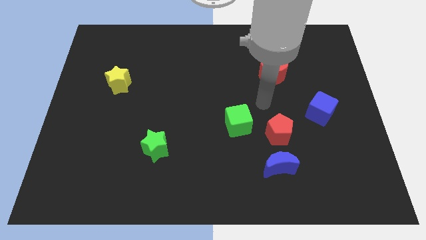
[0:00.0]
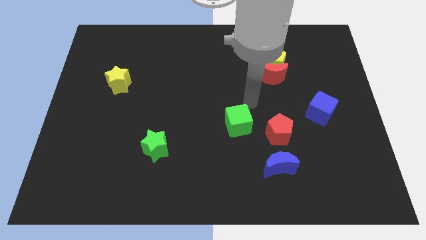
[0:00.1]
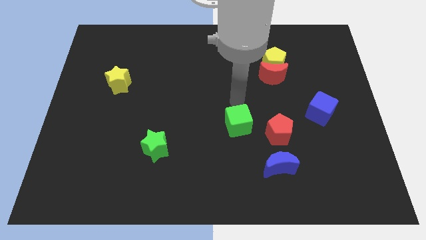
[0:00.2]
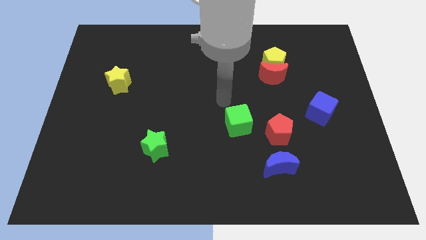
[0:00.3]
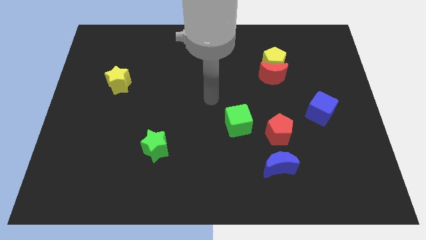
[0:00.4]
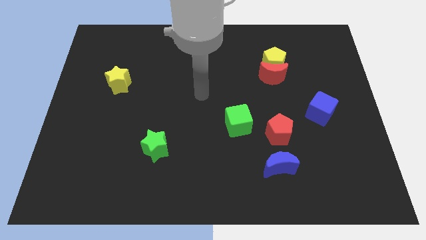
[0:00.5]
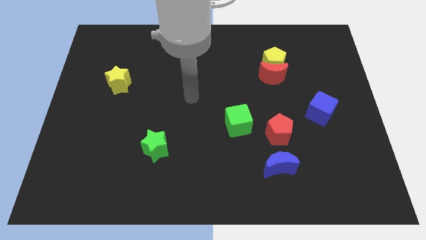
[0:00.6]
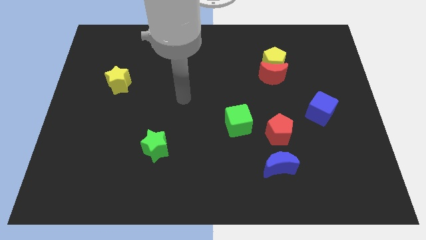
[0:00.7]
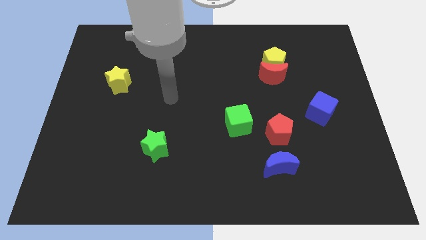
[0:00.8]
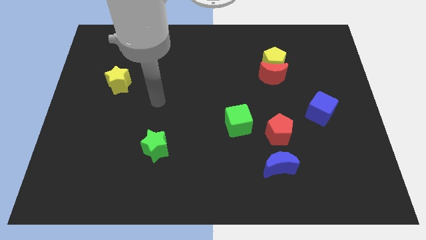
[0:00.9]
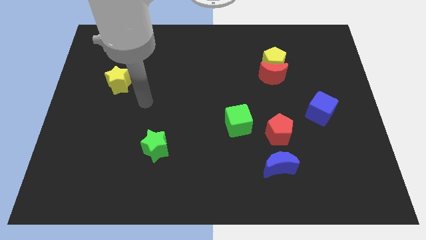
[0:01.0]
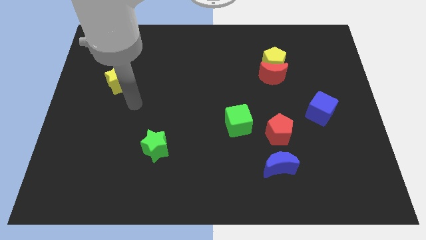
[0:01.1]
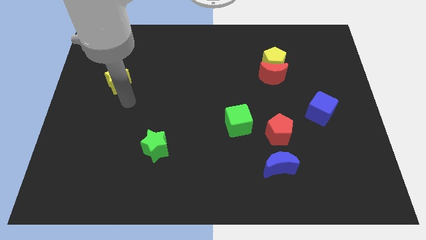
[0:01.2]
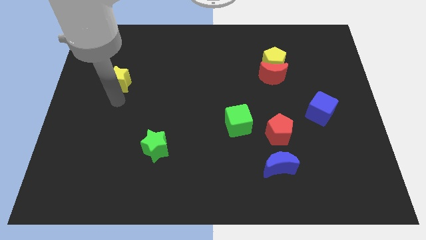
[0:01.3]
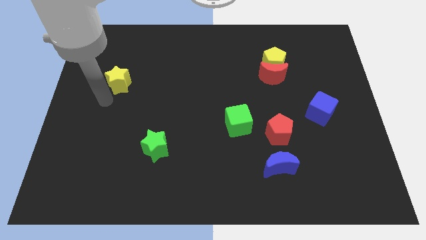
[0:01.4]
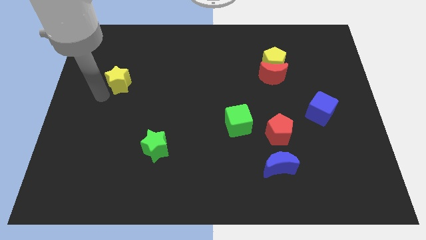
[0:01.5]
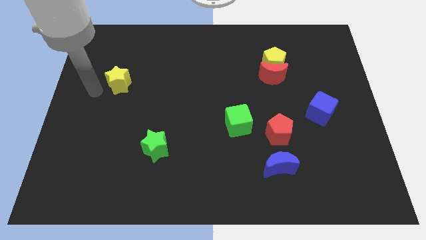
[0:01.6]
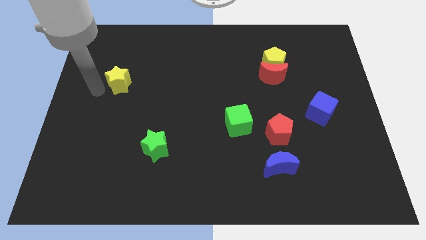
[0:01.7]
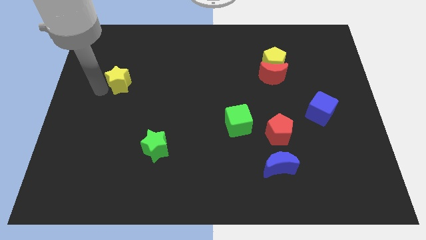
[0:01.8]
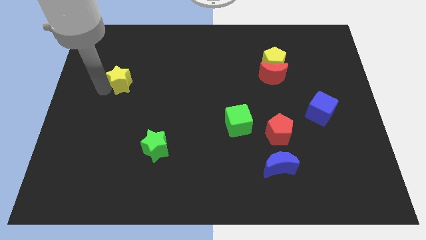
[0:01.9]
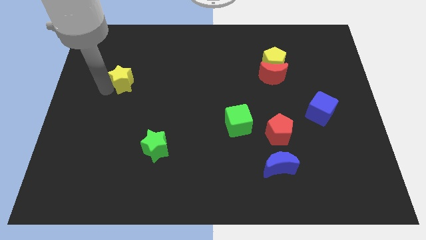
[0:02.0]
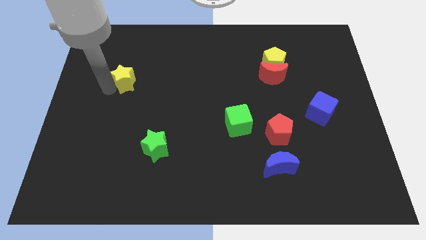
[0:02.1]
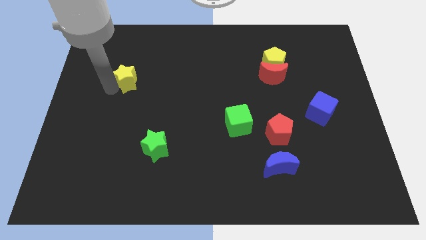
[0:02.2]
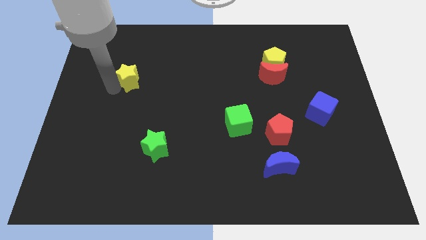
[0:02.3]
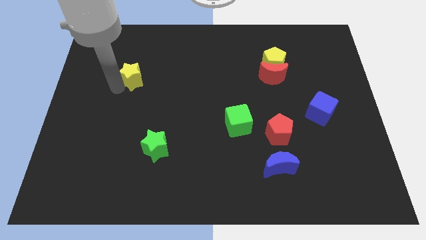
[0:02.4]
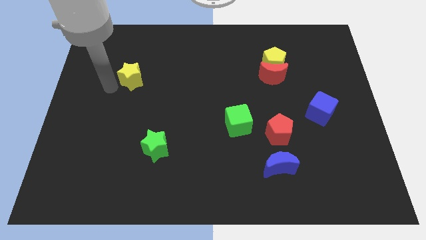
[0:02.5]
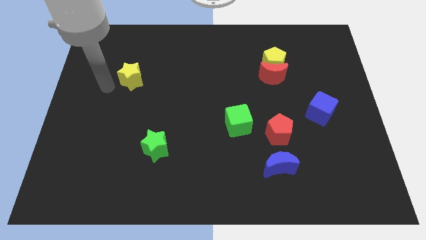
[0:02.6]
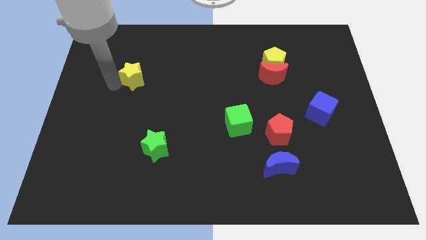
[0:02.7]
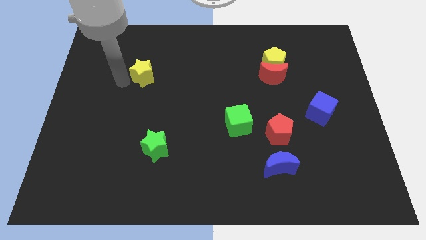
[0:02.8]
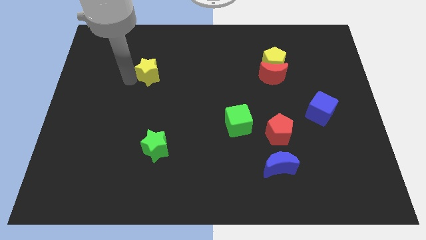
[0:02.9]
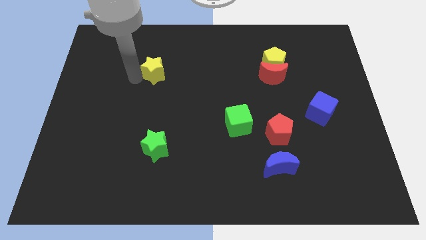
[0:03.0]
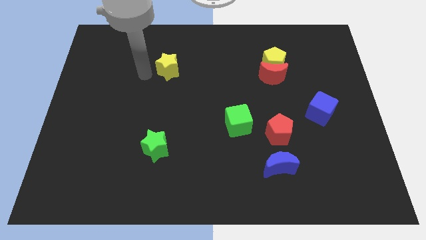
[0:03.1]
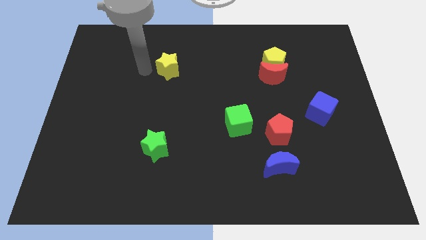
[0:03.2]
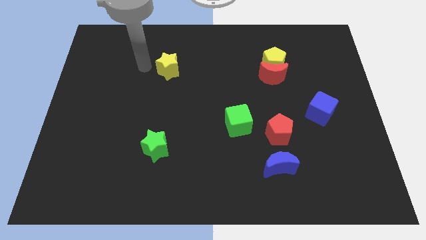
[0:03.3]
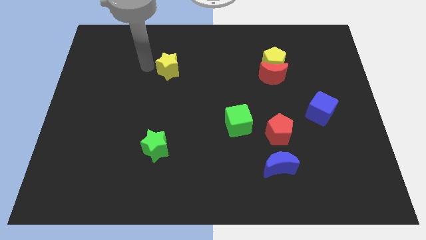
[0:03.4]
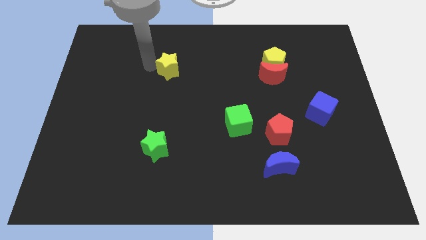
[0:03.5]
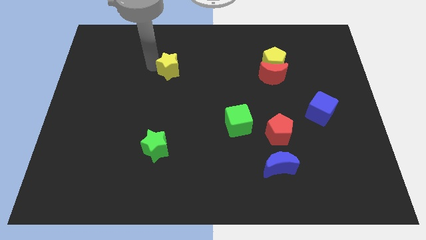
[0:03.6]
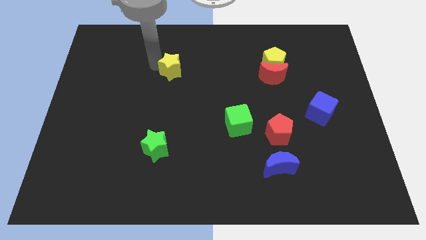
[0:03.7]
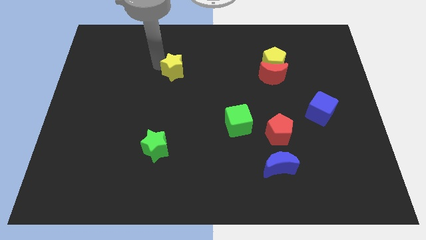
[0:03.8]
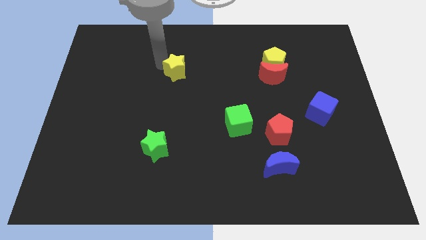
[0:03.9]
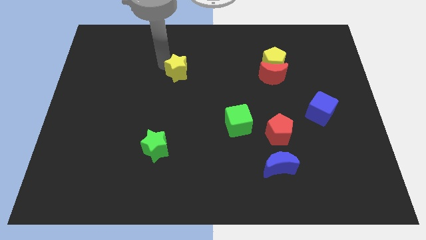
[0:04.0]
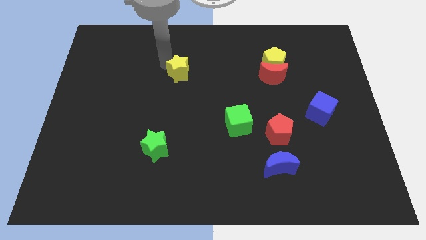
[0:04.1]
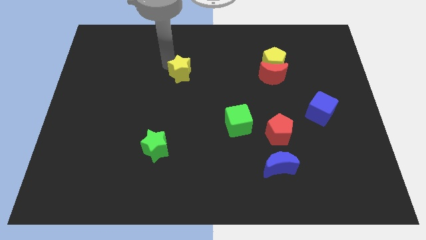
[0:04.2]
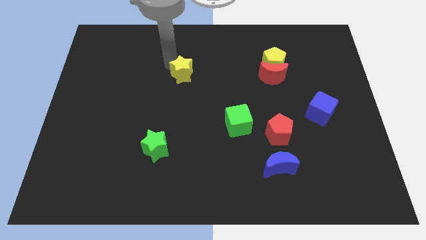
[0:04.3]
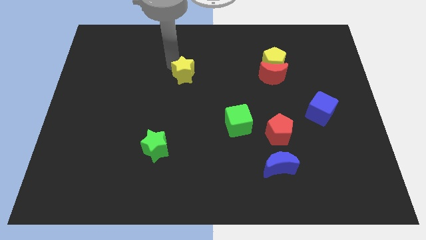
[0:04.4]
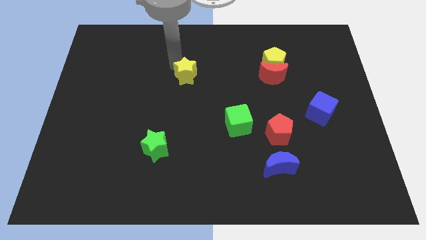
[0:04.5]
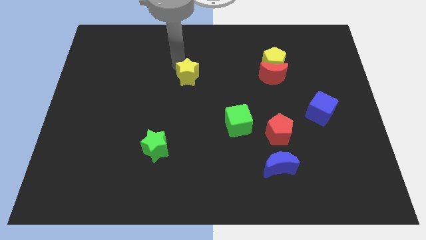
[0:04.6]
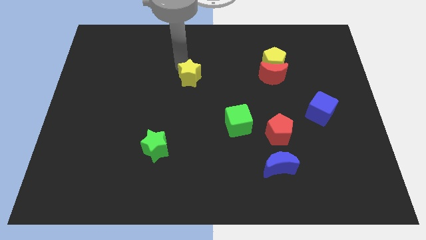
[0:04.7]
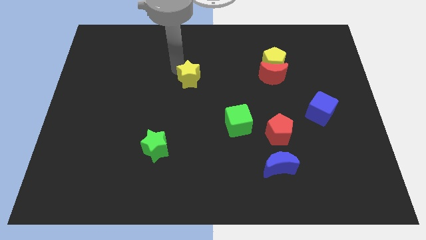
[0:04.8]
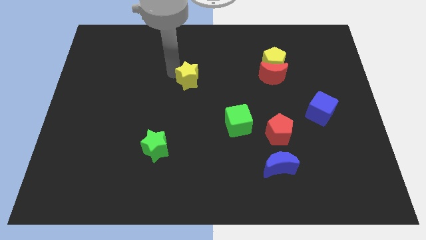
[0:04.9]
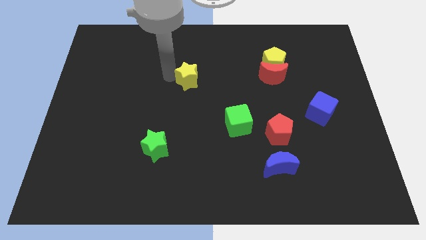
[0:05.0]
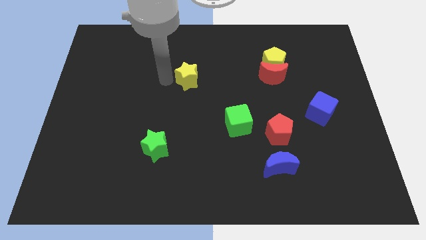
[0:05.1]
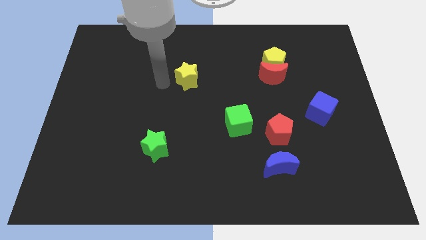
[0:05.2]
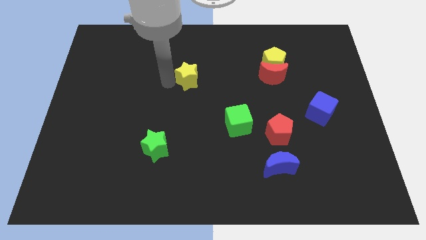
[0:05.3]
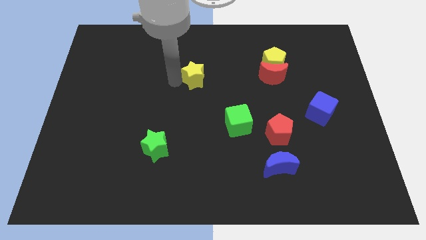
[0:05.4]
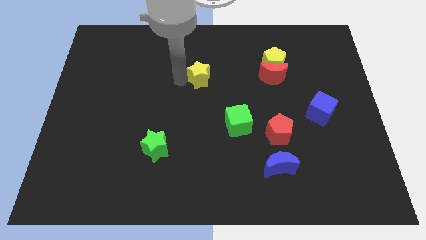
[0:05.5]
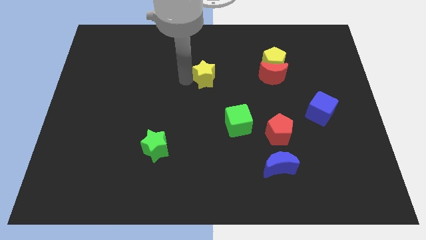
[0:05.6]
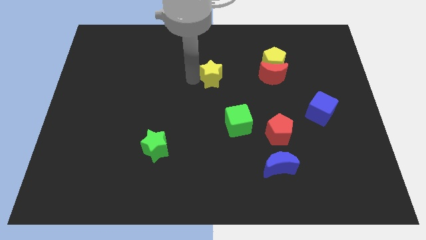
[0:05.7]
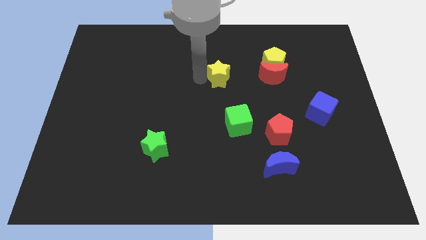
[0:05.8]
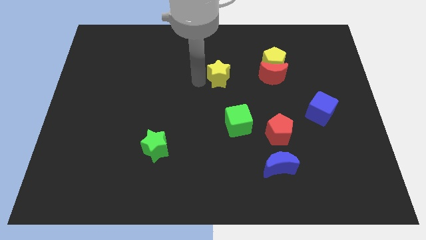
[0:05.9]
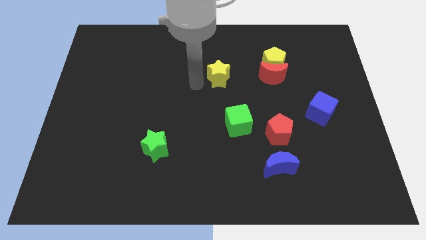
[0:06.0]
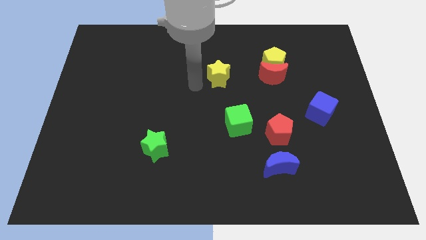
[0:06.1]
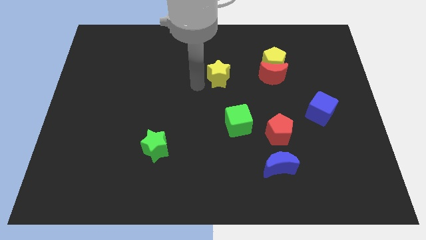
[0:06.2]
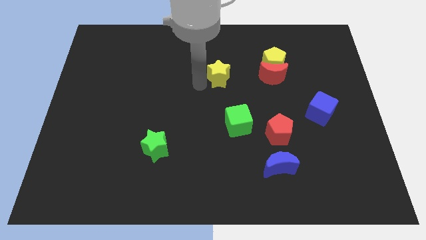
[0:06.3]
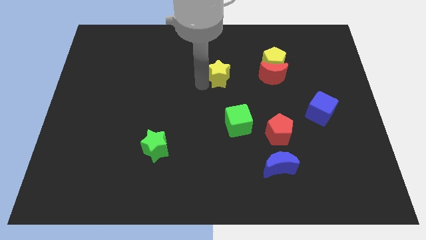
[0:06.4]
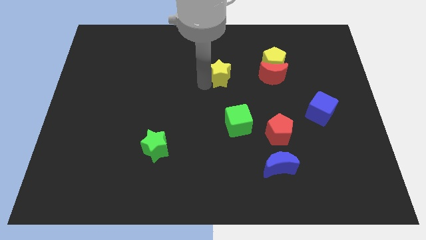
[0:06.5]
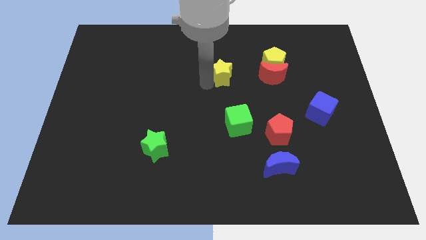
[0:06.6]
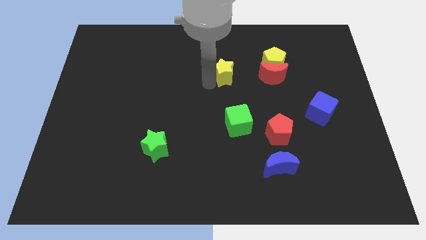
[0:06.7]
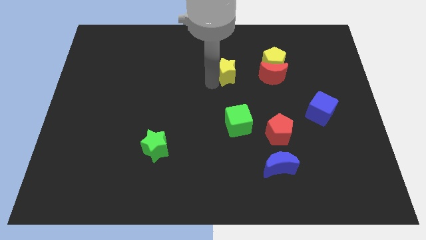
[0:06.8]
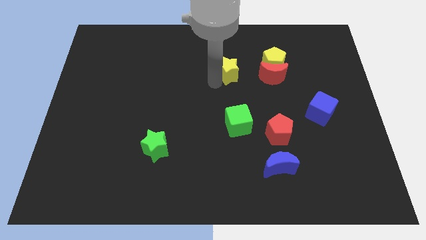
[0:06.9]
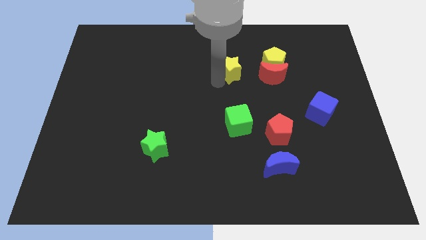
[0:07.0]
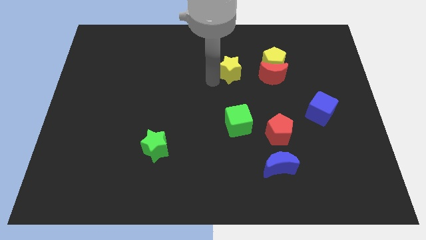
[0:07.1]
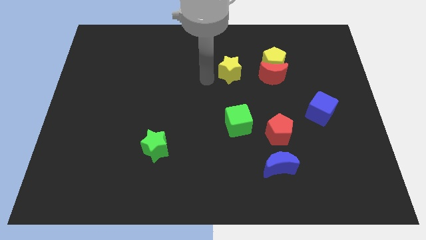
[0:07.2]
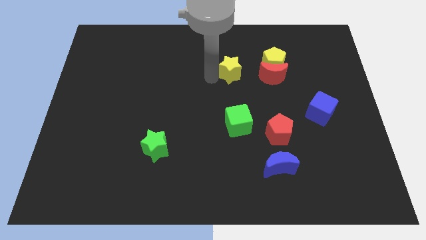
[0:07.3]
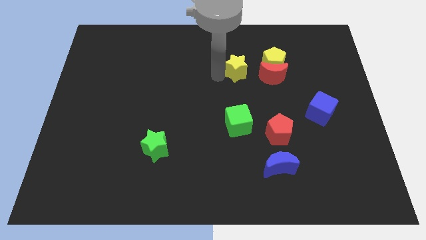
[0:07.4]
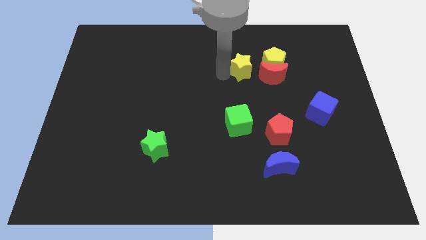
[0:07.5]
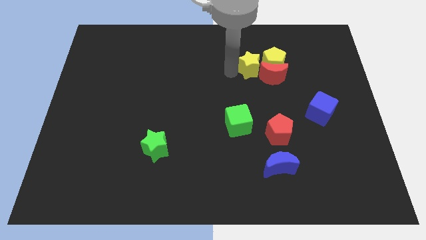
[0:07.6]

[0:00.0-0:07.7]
put the yellow star close to the yellow pentagon
